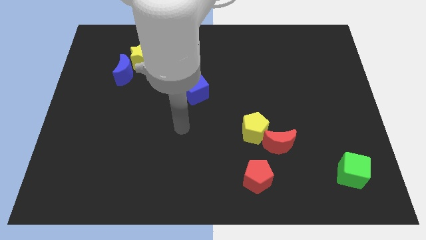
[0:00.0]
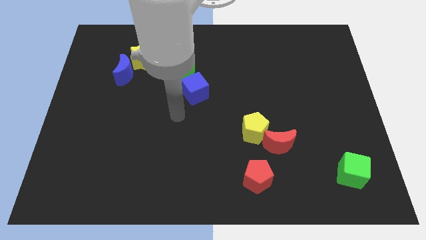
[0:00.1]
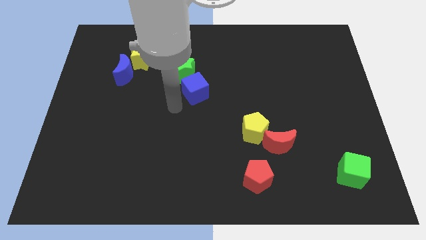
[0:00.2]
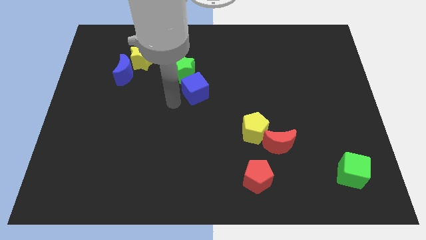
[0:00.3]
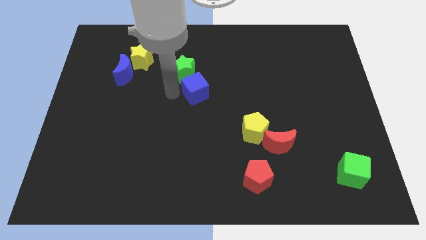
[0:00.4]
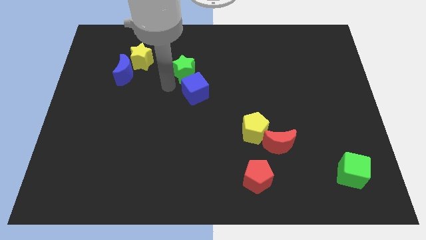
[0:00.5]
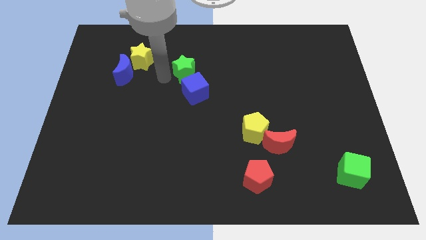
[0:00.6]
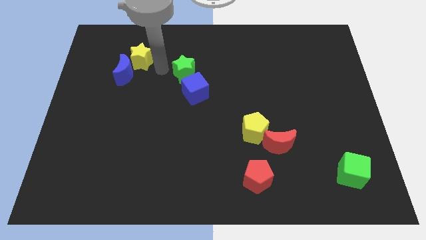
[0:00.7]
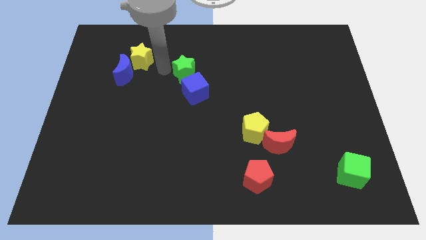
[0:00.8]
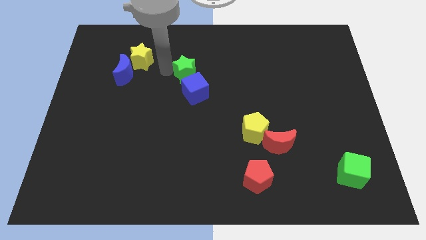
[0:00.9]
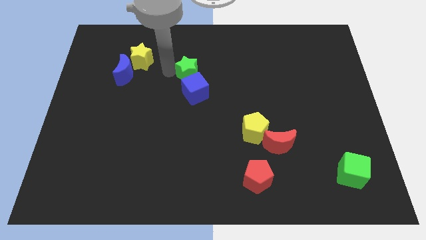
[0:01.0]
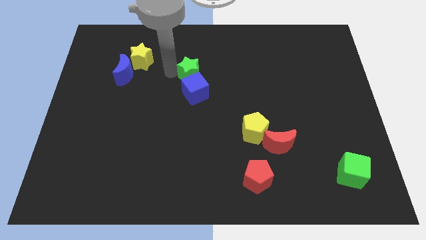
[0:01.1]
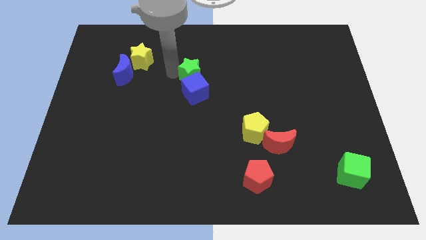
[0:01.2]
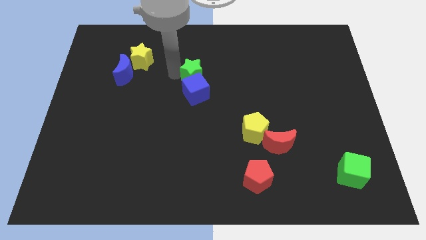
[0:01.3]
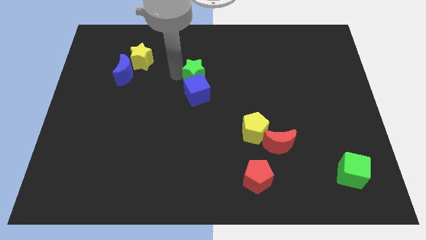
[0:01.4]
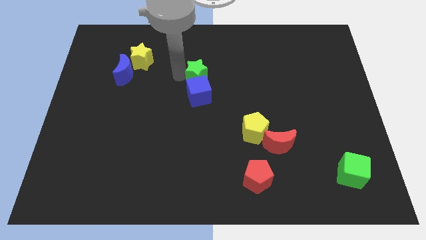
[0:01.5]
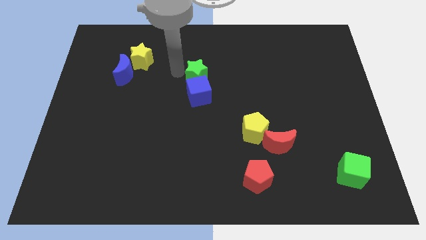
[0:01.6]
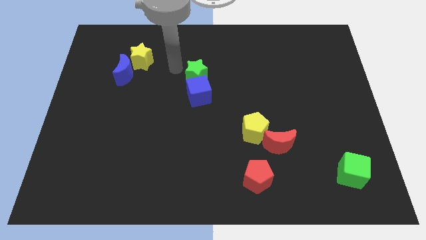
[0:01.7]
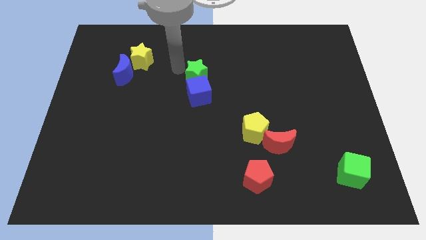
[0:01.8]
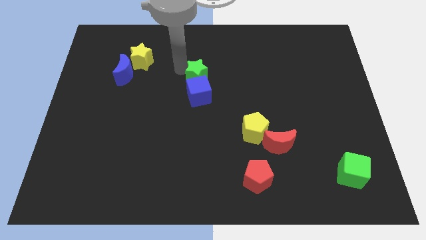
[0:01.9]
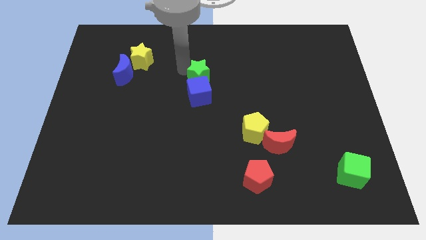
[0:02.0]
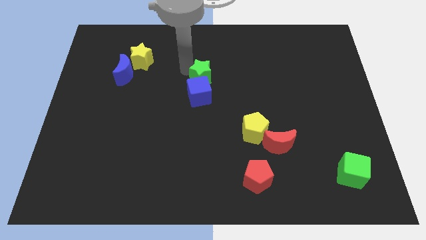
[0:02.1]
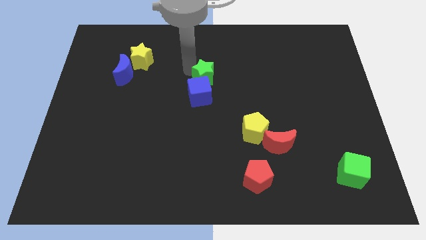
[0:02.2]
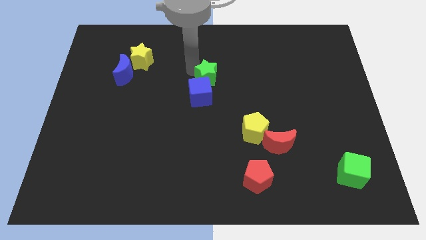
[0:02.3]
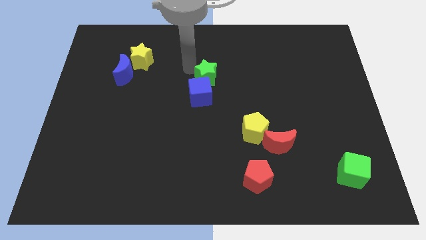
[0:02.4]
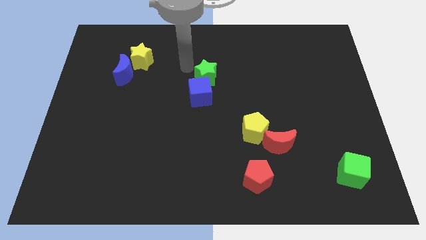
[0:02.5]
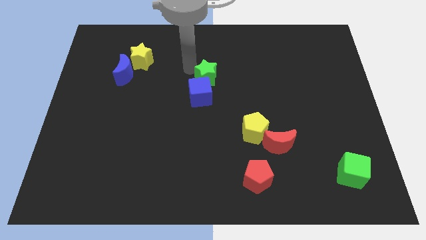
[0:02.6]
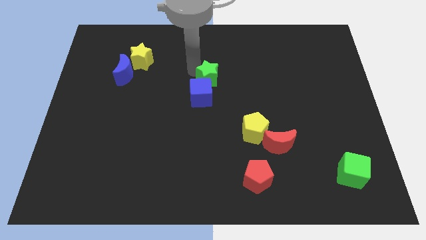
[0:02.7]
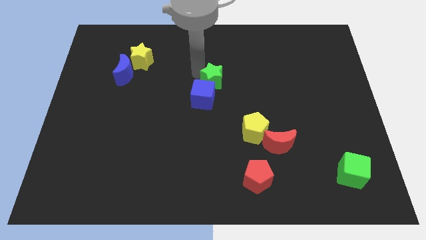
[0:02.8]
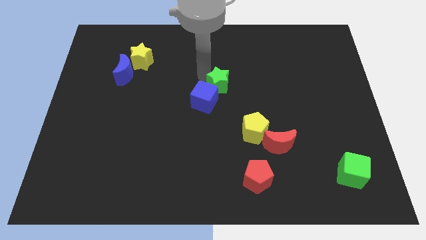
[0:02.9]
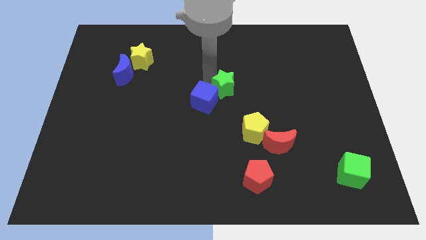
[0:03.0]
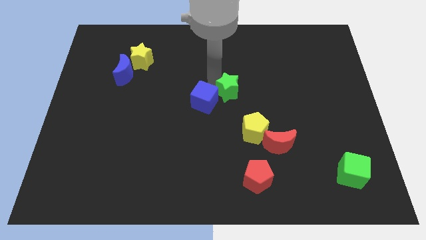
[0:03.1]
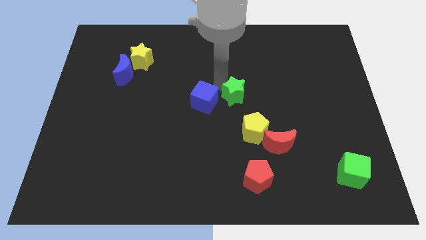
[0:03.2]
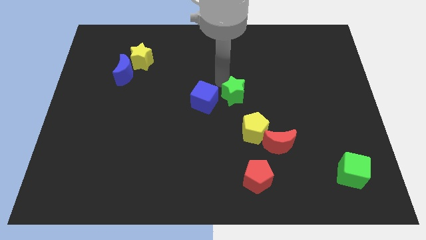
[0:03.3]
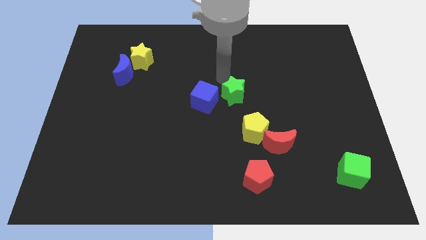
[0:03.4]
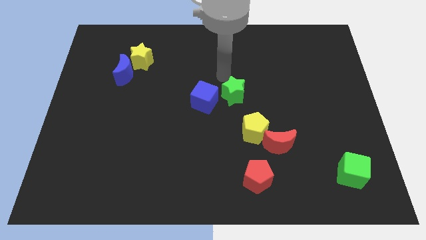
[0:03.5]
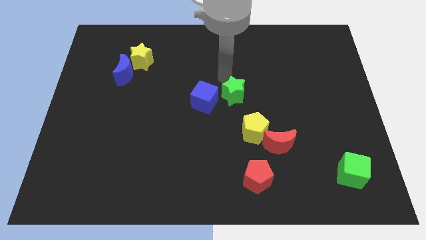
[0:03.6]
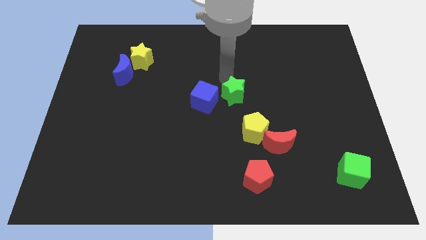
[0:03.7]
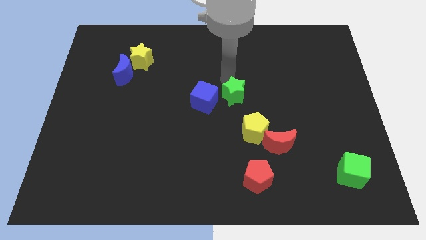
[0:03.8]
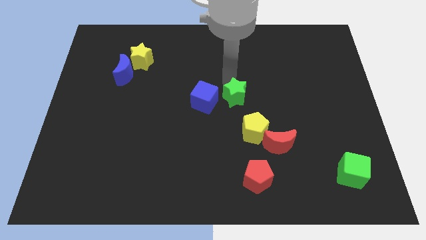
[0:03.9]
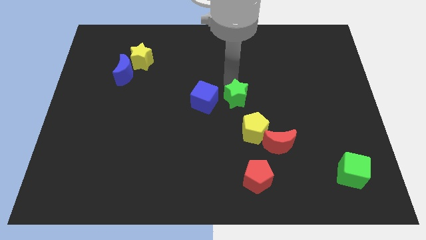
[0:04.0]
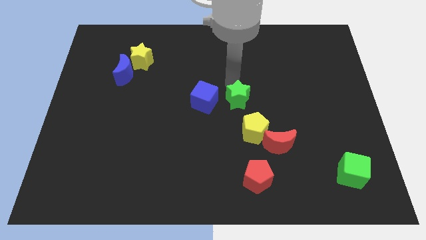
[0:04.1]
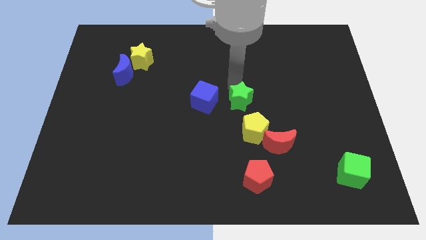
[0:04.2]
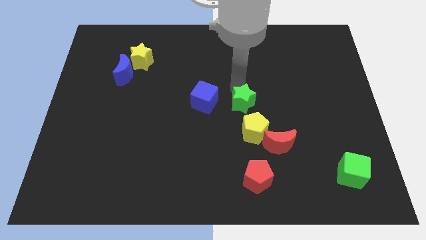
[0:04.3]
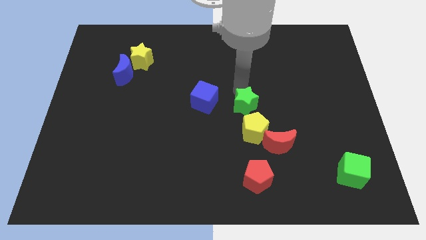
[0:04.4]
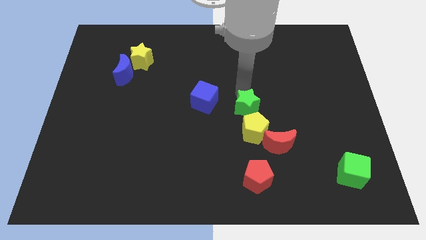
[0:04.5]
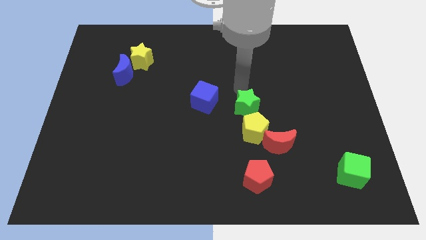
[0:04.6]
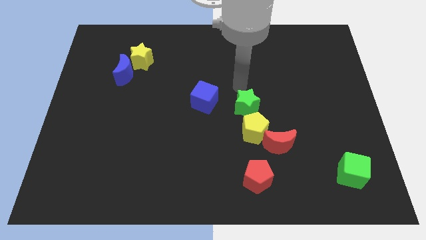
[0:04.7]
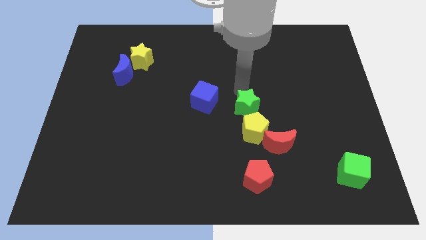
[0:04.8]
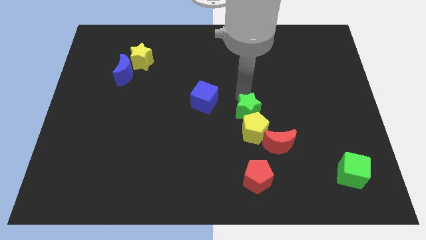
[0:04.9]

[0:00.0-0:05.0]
put the green star towards the yellow pentagon

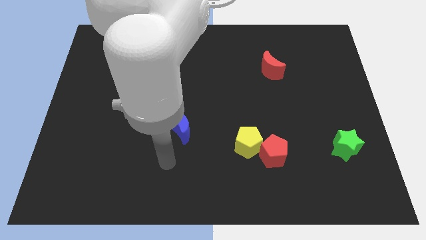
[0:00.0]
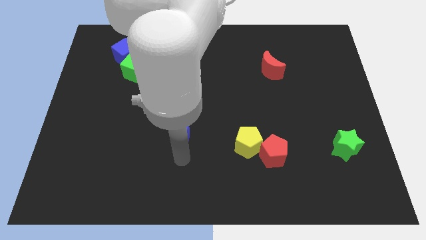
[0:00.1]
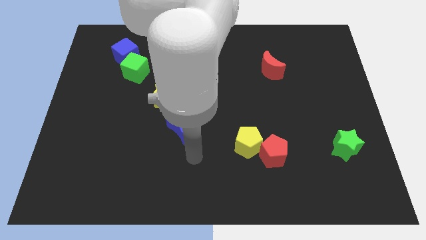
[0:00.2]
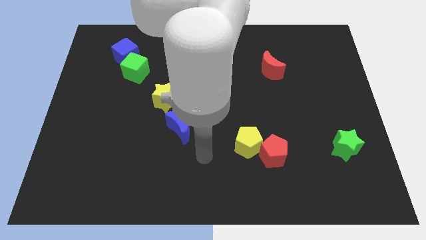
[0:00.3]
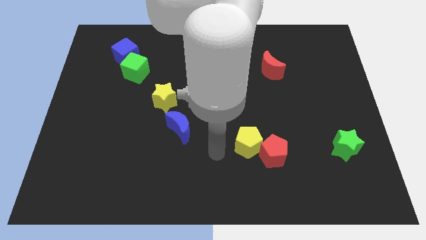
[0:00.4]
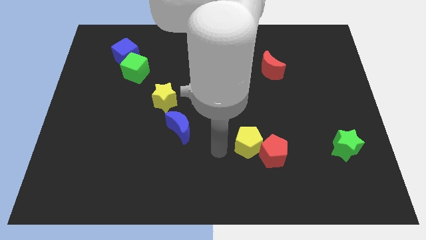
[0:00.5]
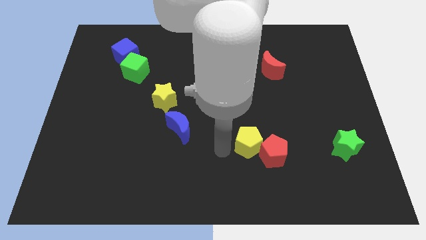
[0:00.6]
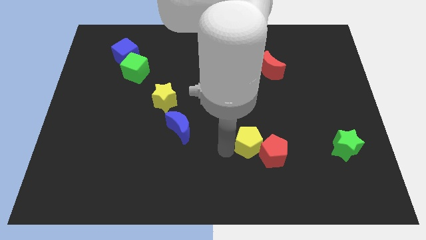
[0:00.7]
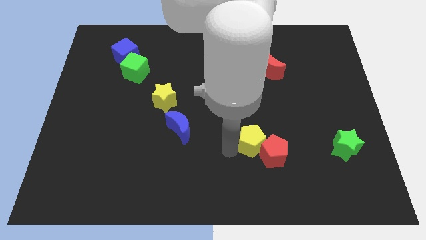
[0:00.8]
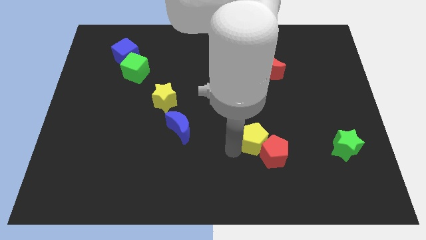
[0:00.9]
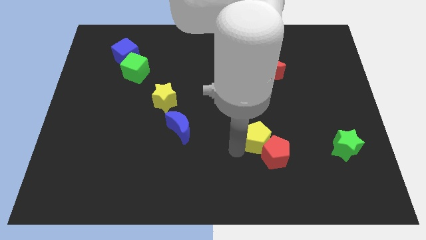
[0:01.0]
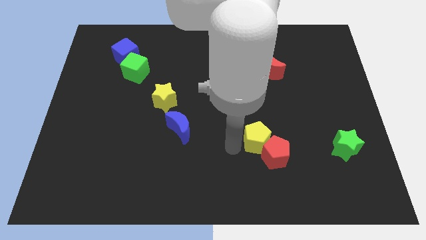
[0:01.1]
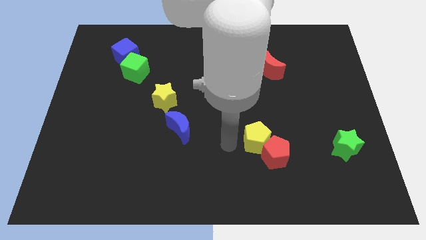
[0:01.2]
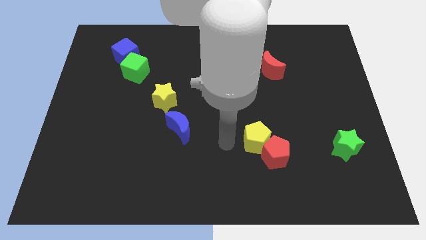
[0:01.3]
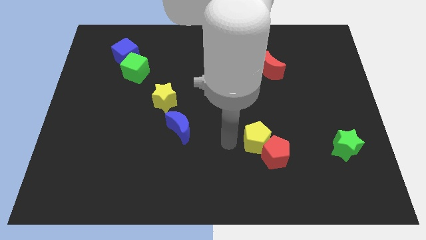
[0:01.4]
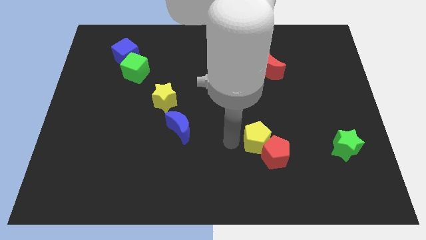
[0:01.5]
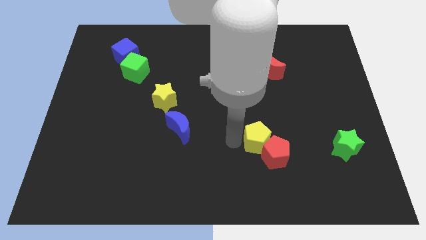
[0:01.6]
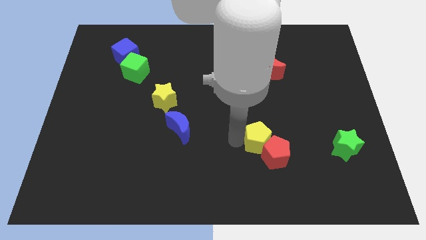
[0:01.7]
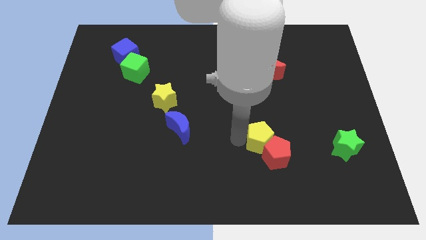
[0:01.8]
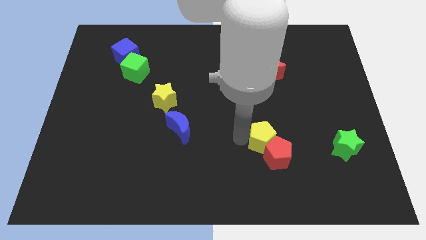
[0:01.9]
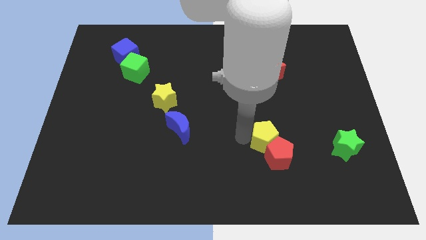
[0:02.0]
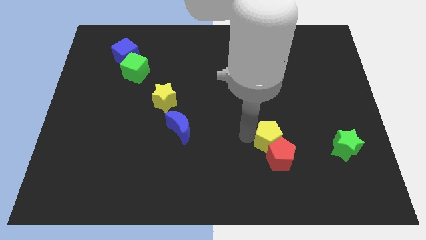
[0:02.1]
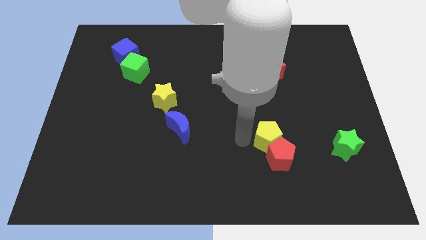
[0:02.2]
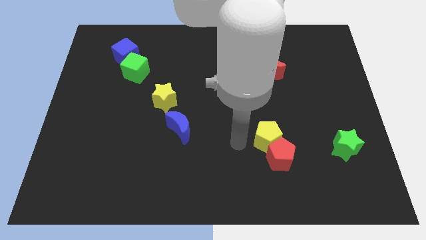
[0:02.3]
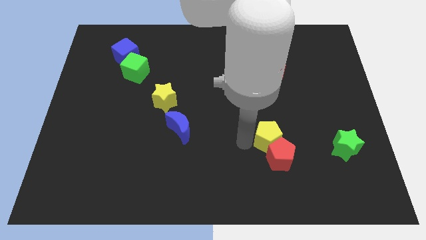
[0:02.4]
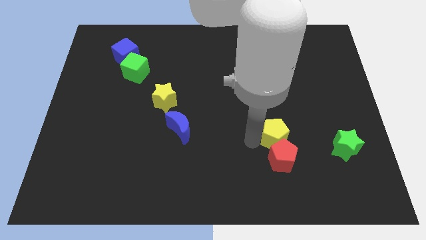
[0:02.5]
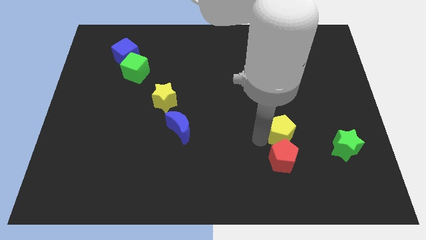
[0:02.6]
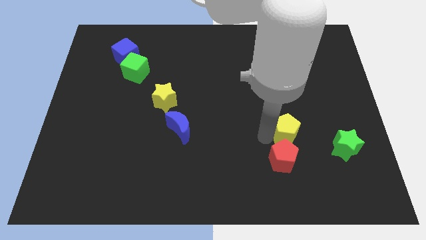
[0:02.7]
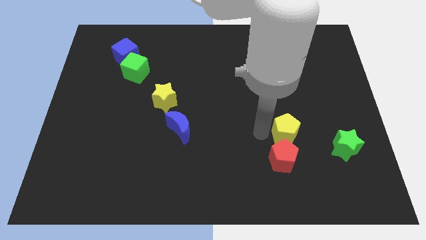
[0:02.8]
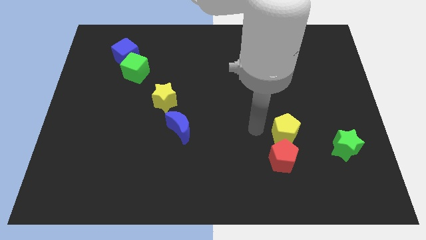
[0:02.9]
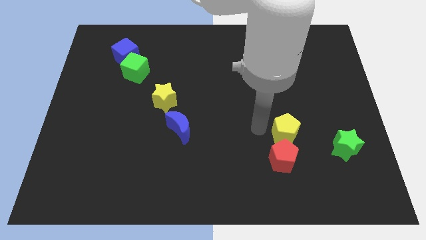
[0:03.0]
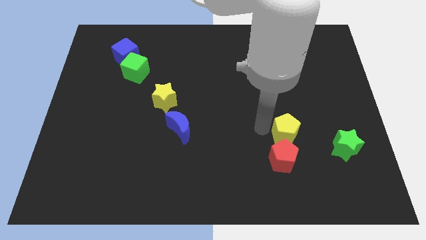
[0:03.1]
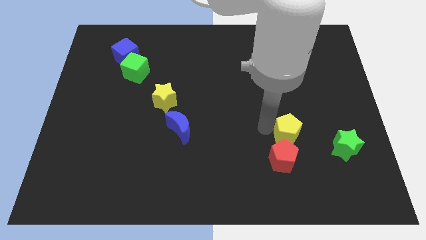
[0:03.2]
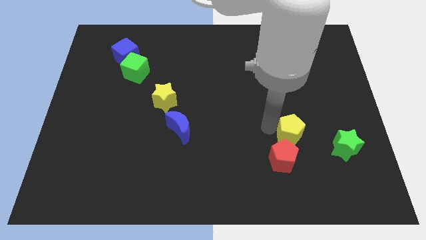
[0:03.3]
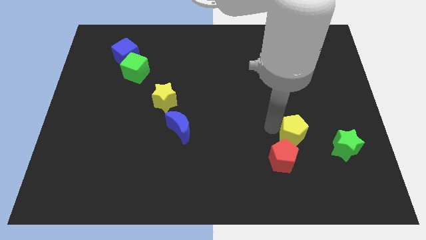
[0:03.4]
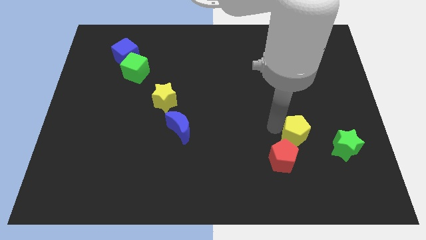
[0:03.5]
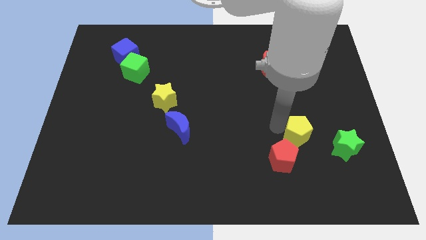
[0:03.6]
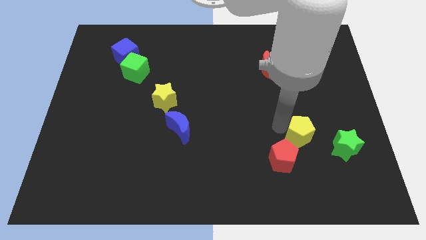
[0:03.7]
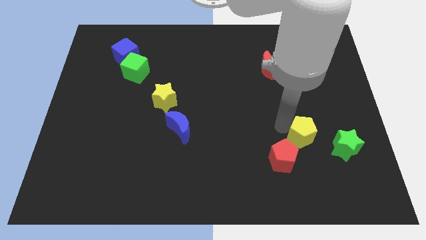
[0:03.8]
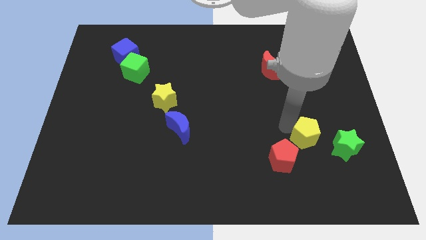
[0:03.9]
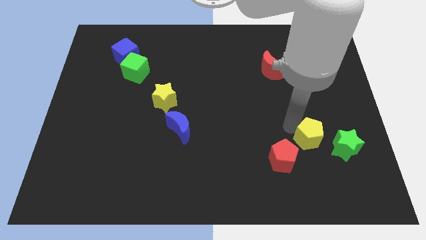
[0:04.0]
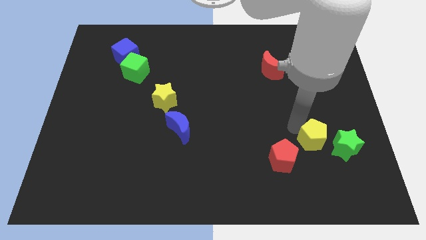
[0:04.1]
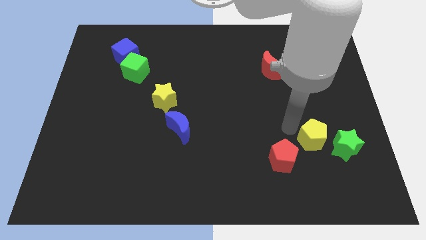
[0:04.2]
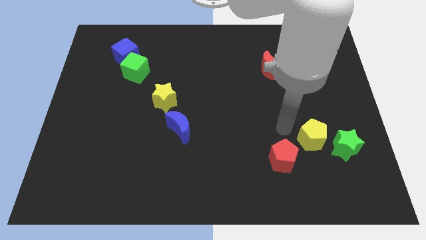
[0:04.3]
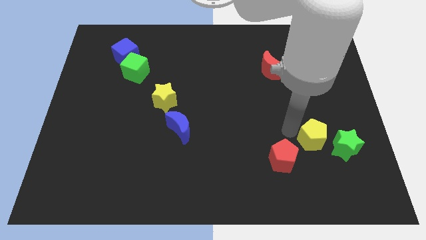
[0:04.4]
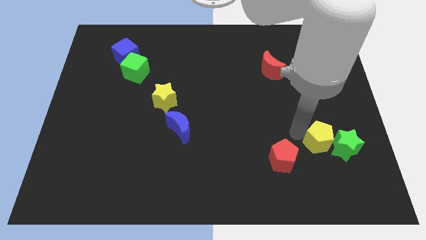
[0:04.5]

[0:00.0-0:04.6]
put the yellow pentagon next to the green star
